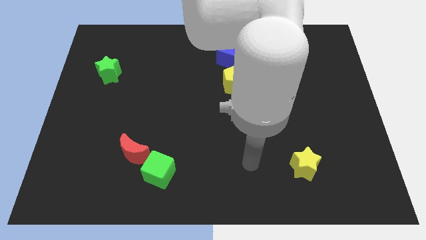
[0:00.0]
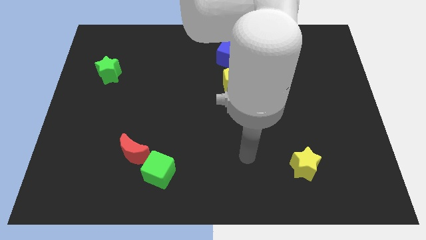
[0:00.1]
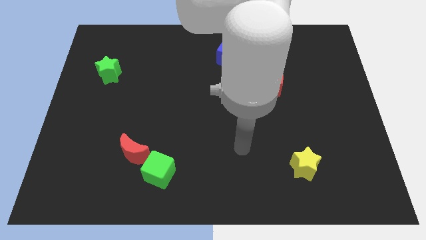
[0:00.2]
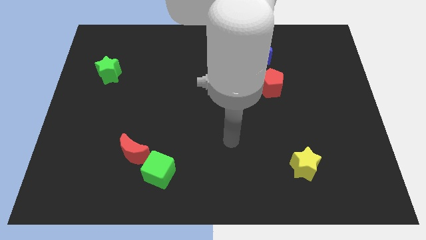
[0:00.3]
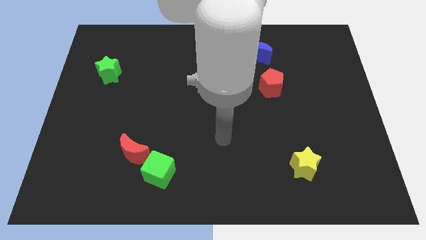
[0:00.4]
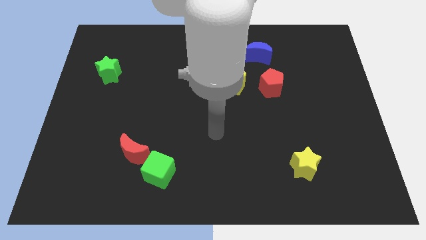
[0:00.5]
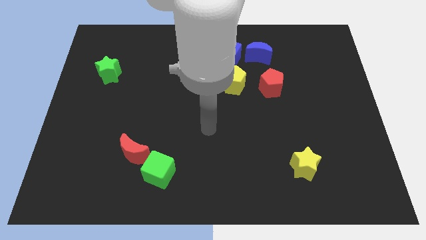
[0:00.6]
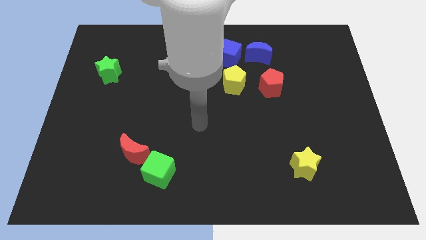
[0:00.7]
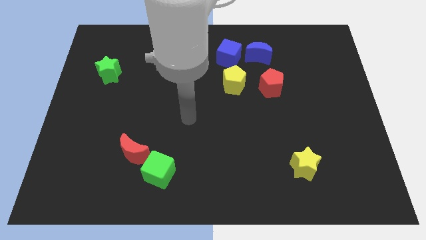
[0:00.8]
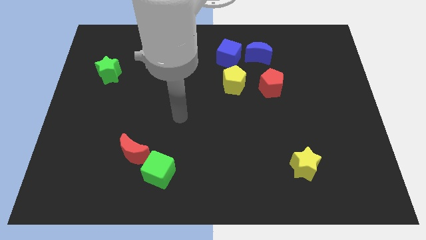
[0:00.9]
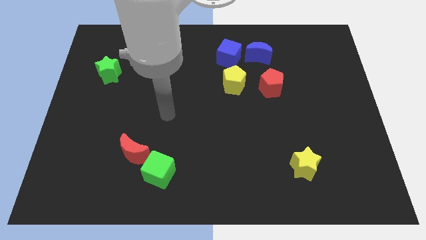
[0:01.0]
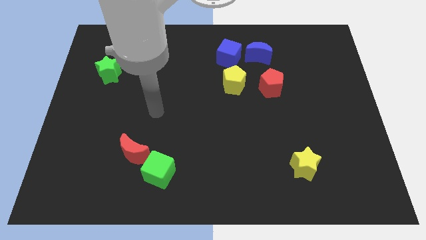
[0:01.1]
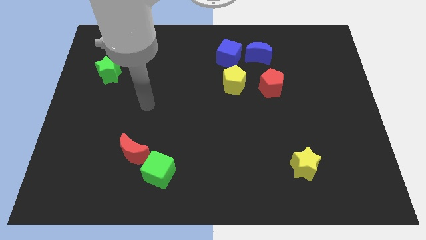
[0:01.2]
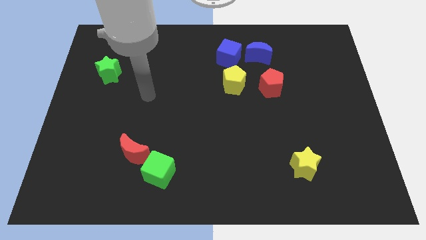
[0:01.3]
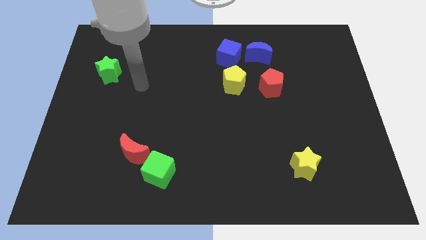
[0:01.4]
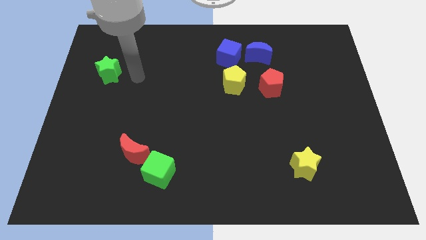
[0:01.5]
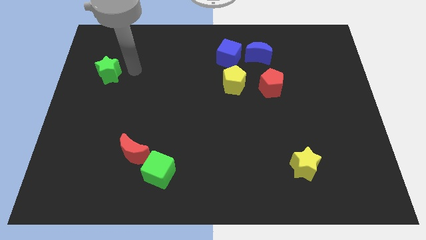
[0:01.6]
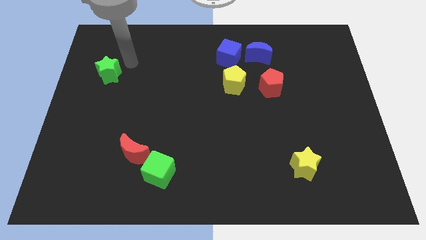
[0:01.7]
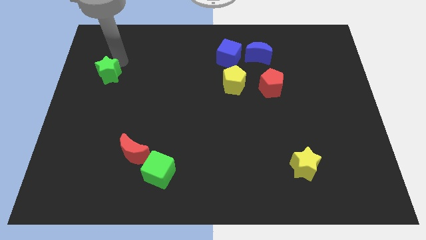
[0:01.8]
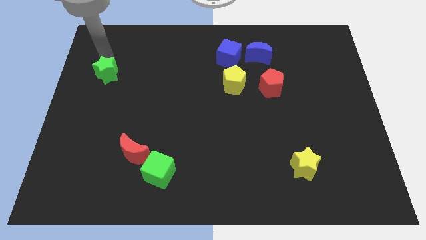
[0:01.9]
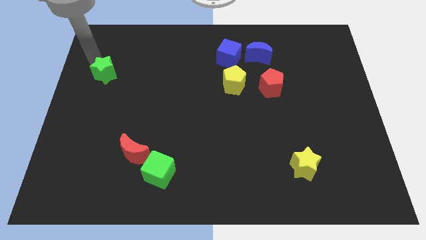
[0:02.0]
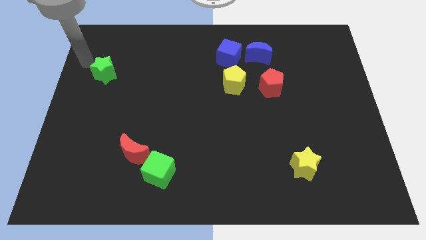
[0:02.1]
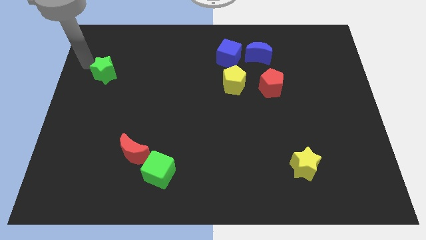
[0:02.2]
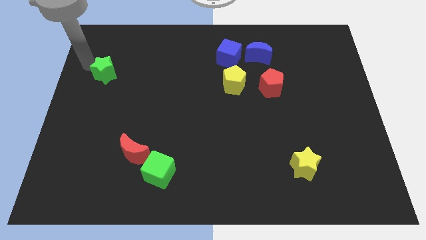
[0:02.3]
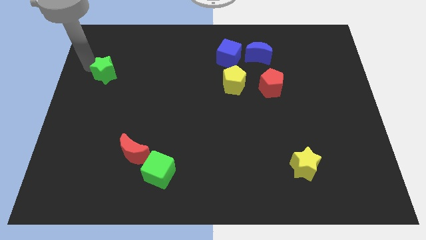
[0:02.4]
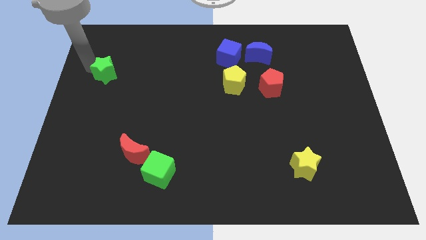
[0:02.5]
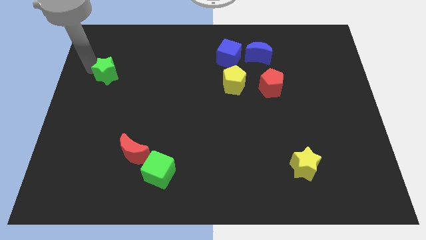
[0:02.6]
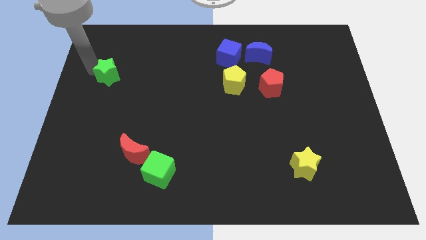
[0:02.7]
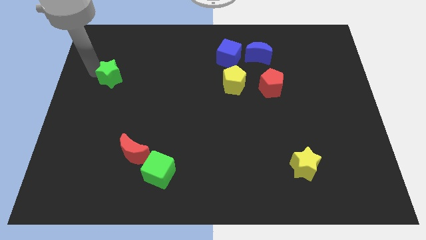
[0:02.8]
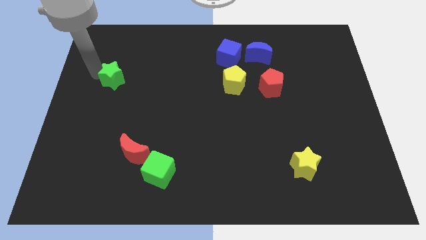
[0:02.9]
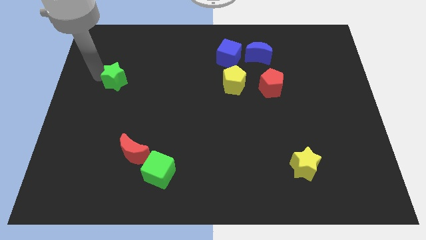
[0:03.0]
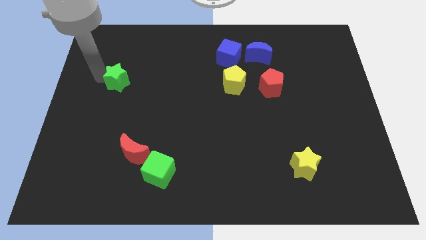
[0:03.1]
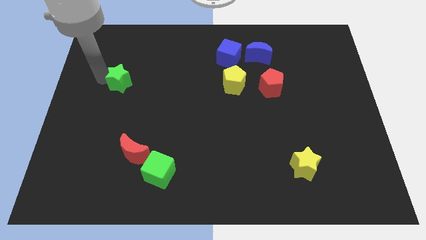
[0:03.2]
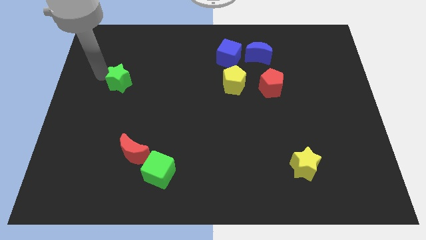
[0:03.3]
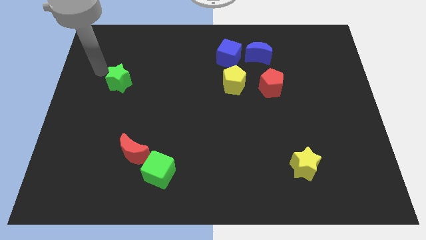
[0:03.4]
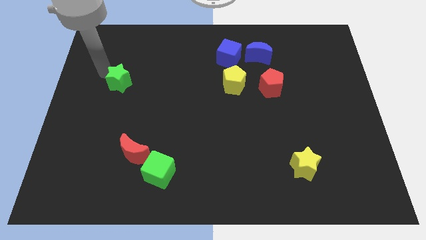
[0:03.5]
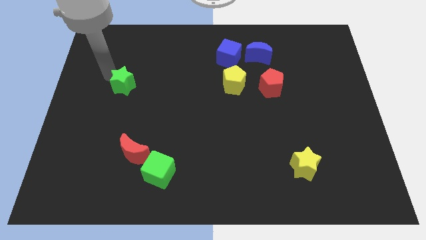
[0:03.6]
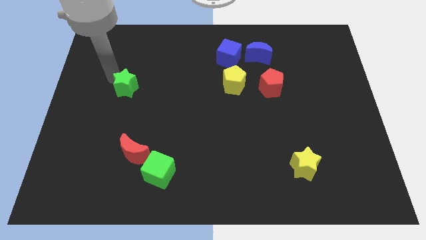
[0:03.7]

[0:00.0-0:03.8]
slightly push the green star down and right

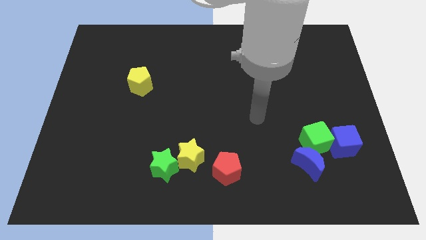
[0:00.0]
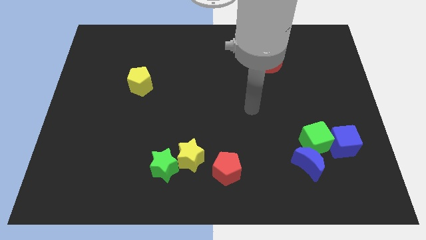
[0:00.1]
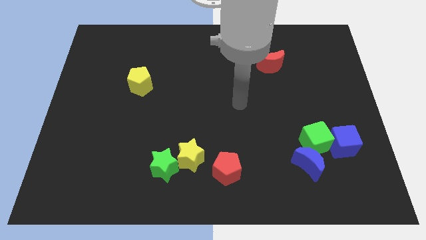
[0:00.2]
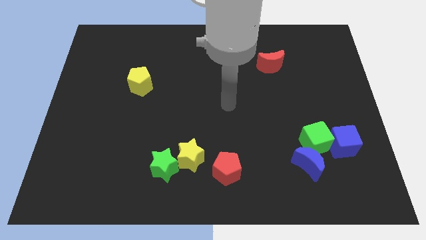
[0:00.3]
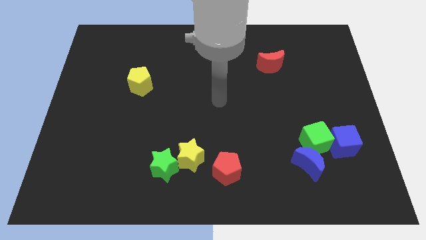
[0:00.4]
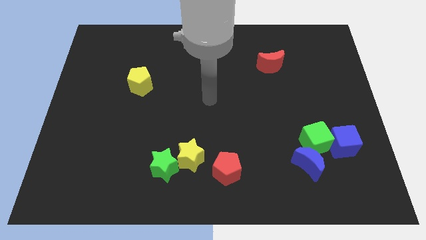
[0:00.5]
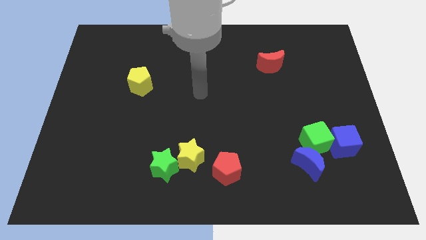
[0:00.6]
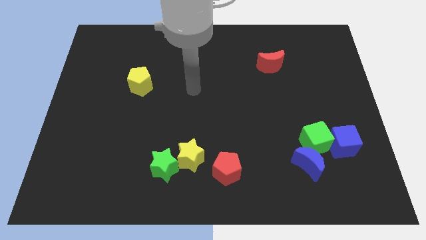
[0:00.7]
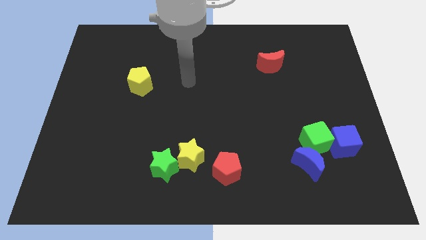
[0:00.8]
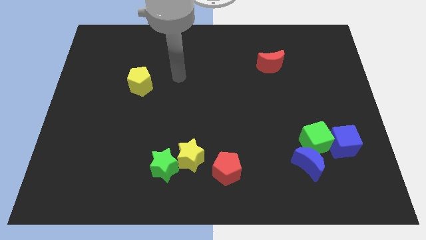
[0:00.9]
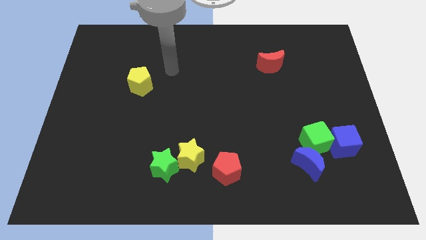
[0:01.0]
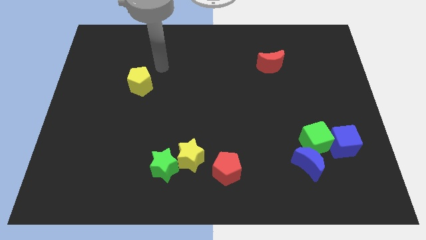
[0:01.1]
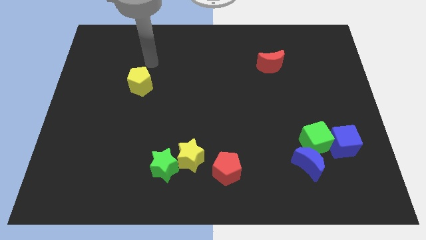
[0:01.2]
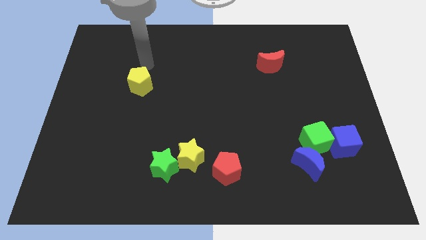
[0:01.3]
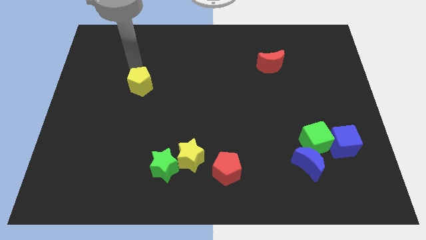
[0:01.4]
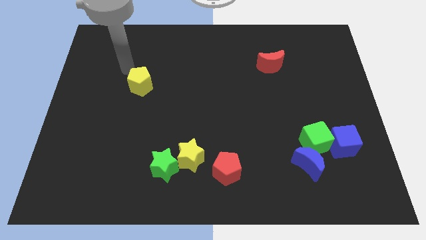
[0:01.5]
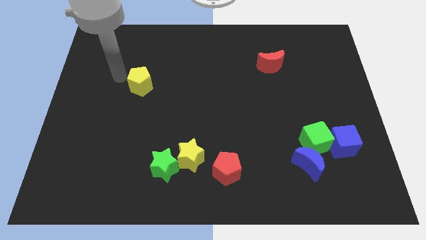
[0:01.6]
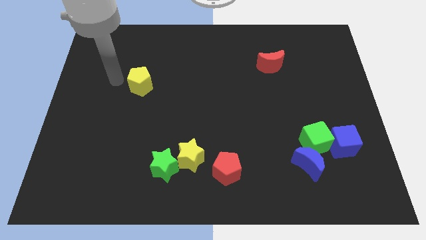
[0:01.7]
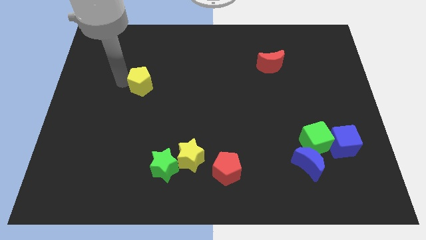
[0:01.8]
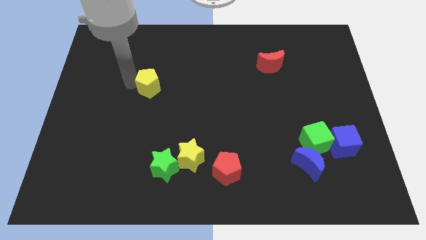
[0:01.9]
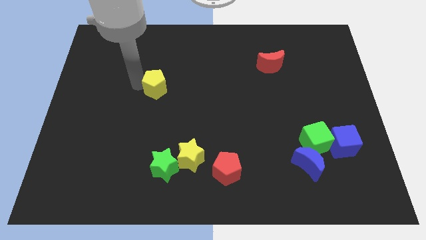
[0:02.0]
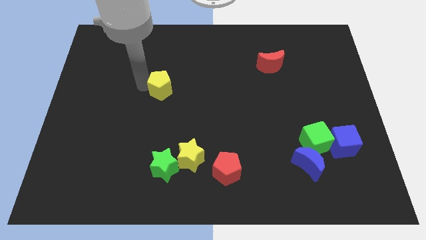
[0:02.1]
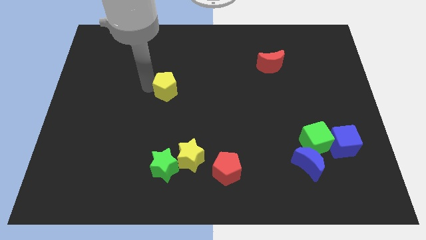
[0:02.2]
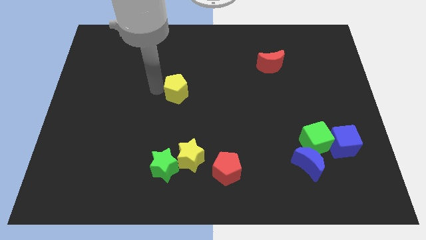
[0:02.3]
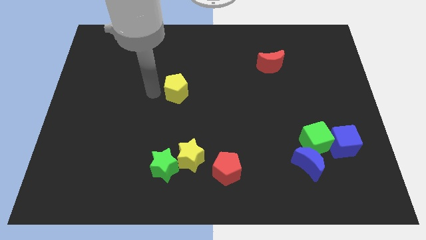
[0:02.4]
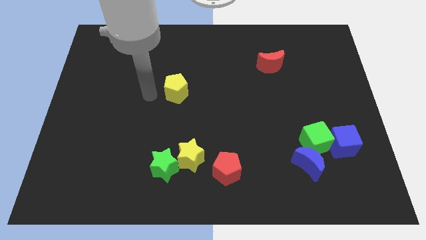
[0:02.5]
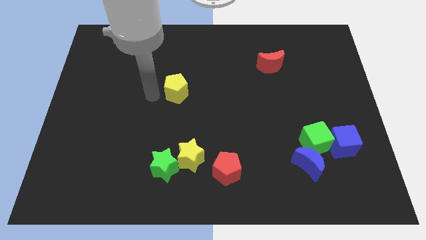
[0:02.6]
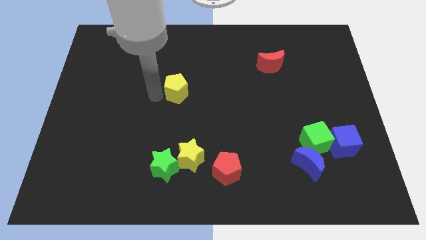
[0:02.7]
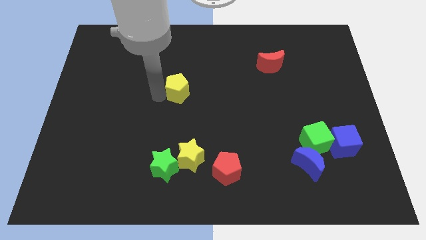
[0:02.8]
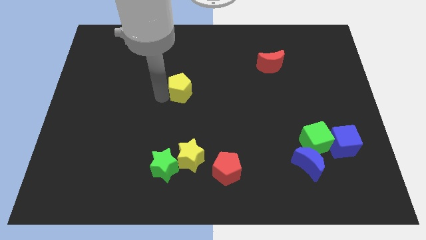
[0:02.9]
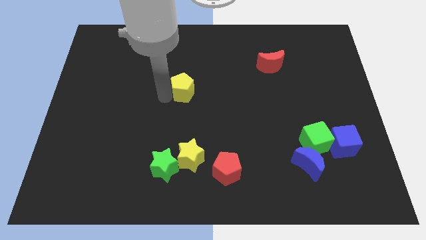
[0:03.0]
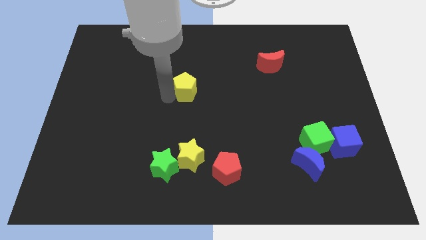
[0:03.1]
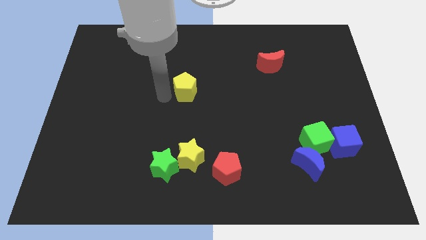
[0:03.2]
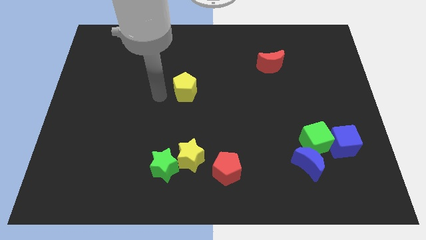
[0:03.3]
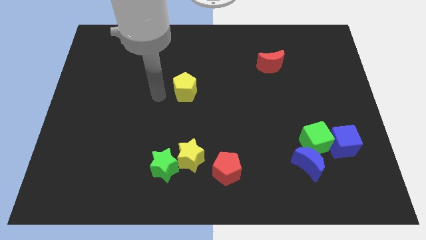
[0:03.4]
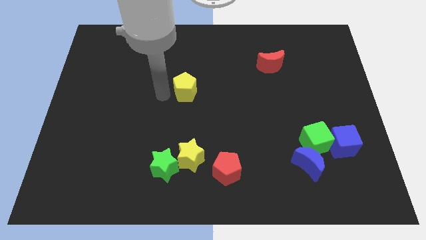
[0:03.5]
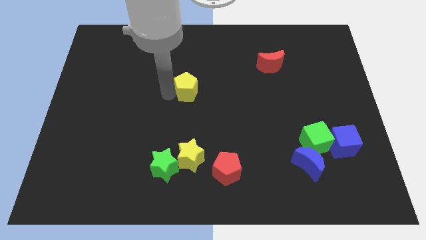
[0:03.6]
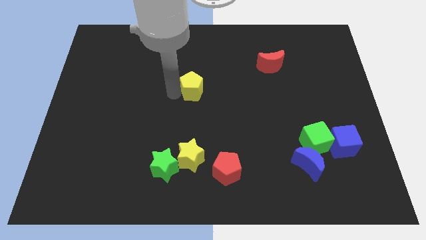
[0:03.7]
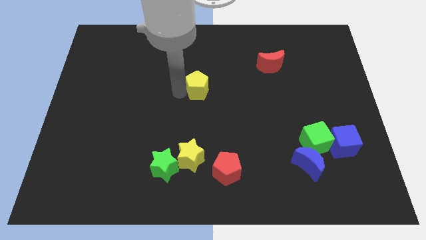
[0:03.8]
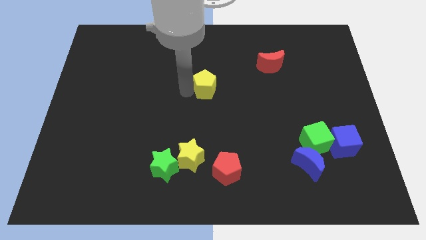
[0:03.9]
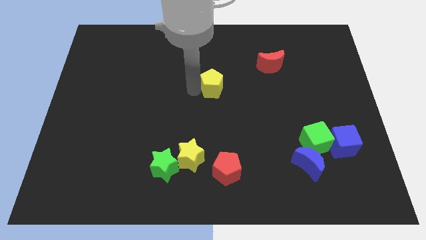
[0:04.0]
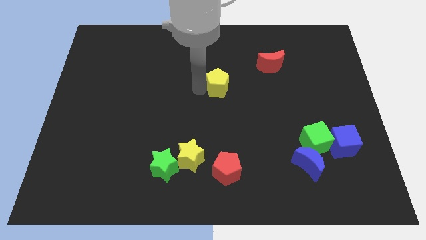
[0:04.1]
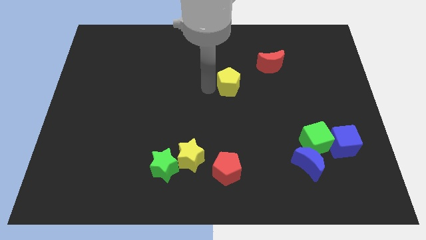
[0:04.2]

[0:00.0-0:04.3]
move the yellow pentagon to the right
